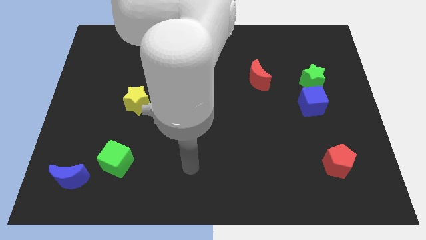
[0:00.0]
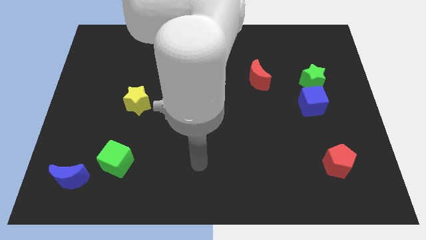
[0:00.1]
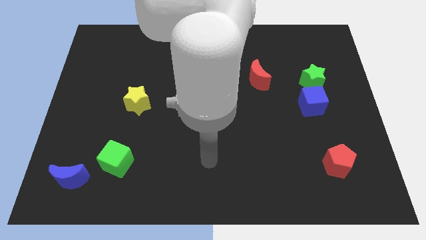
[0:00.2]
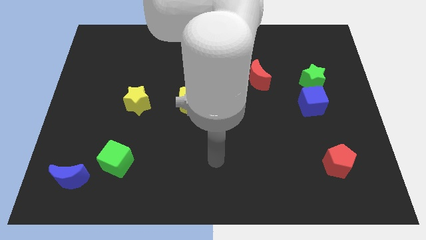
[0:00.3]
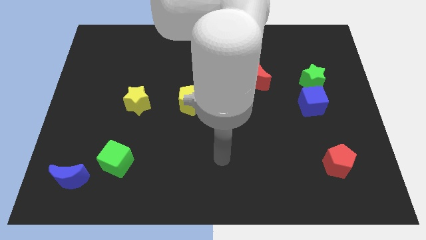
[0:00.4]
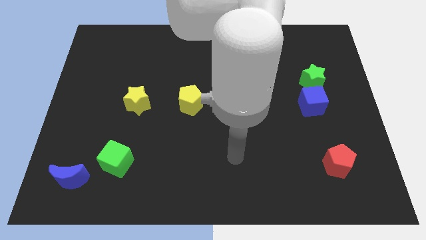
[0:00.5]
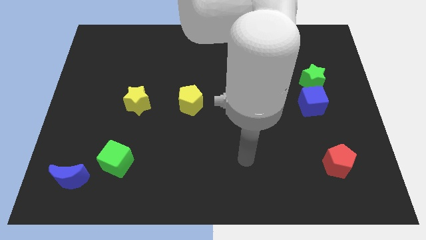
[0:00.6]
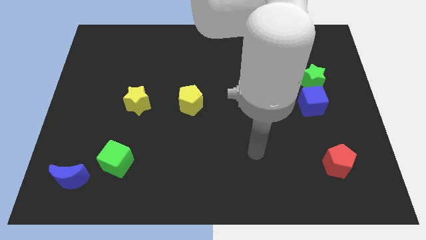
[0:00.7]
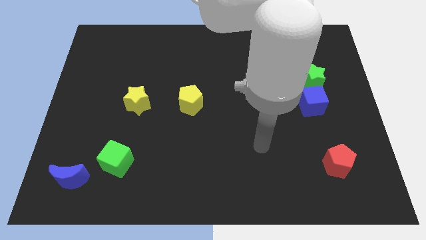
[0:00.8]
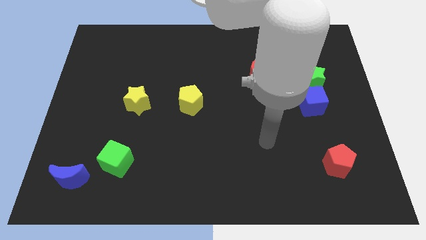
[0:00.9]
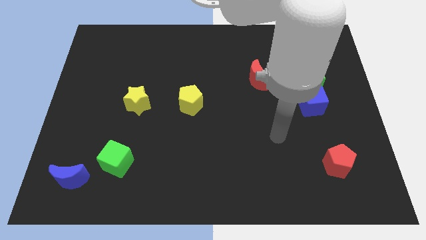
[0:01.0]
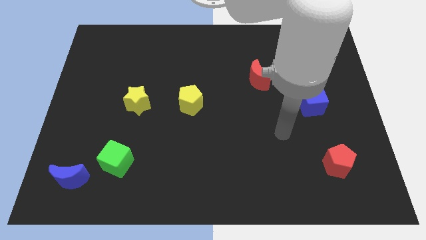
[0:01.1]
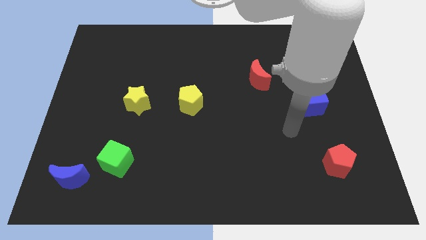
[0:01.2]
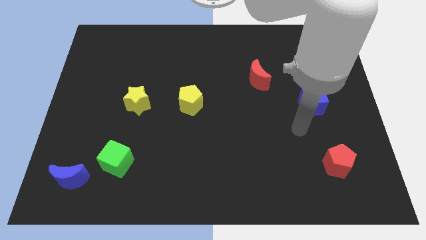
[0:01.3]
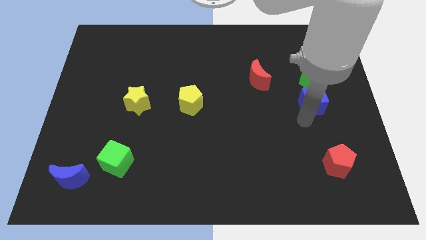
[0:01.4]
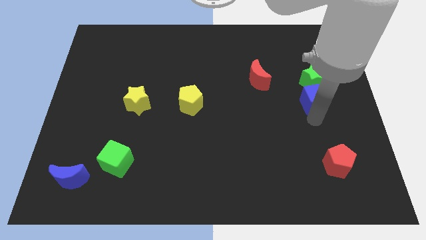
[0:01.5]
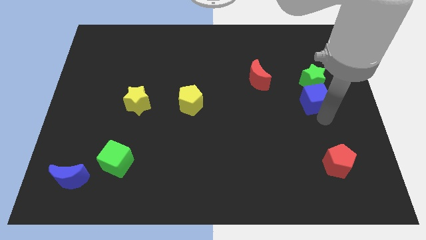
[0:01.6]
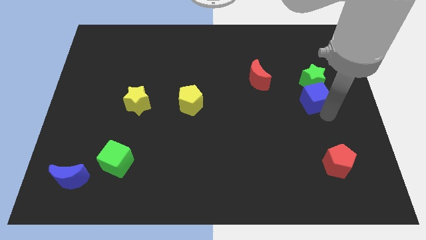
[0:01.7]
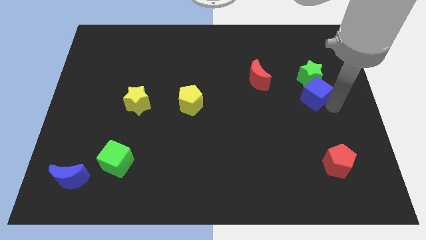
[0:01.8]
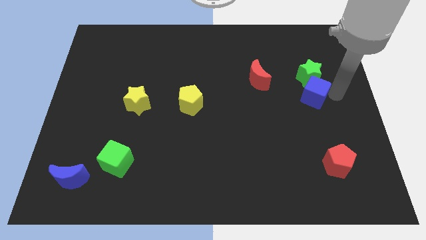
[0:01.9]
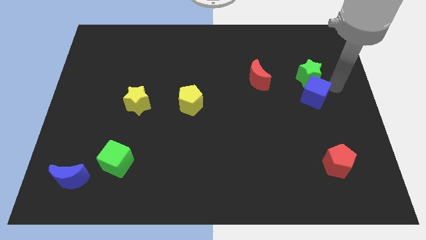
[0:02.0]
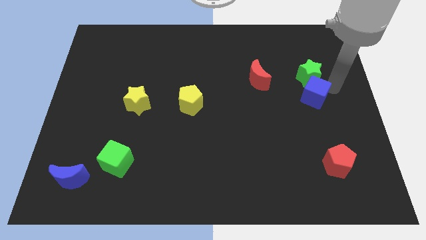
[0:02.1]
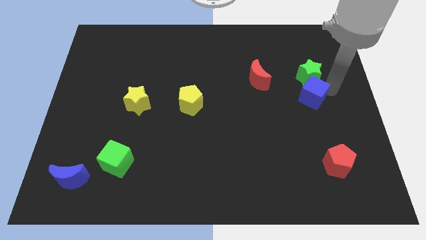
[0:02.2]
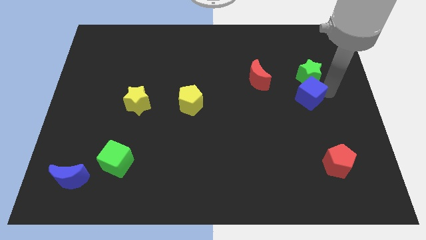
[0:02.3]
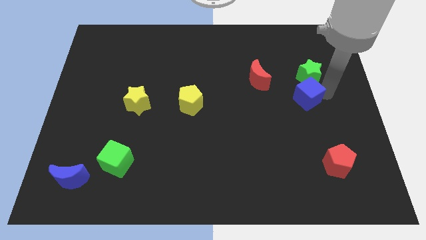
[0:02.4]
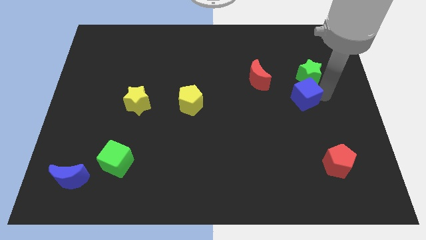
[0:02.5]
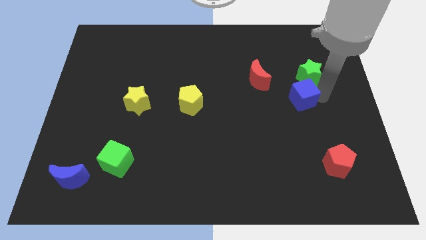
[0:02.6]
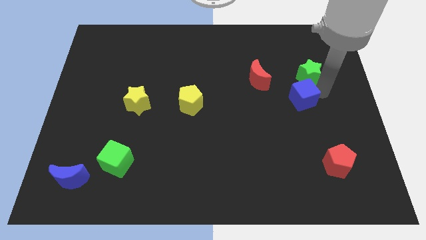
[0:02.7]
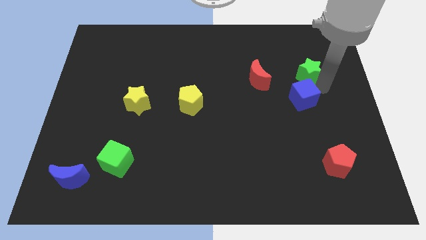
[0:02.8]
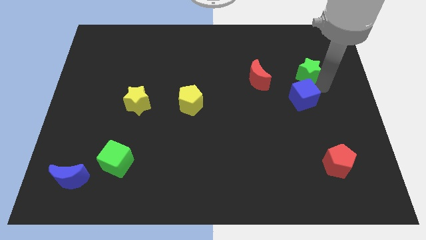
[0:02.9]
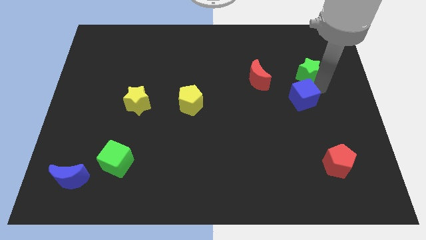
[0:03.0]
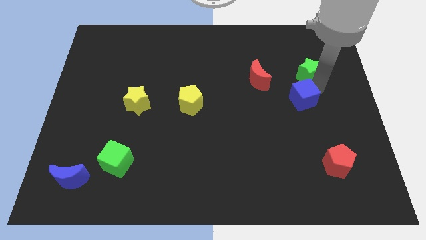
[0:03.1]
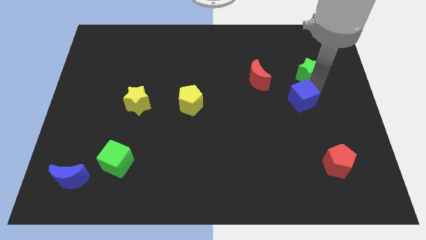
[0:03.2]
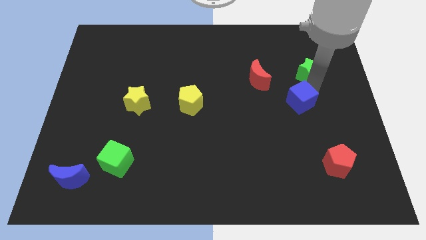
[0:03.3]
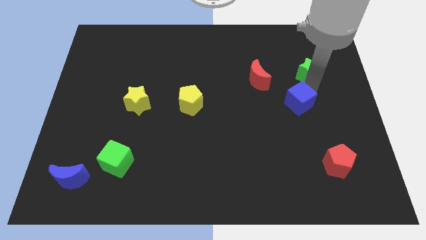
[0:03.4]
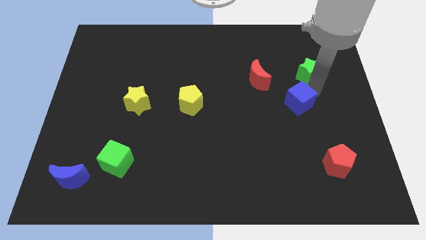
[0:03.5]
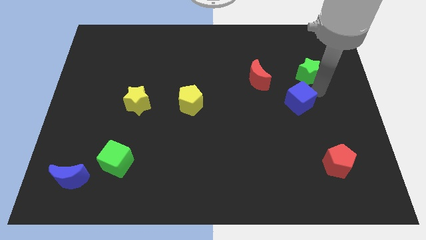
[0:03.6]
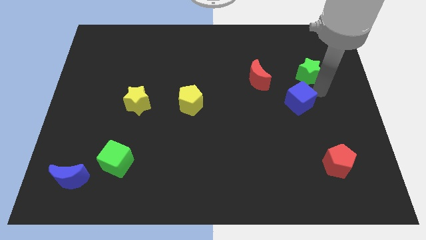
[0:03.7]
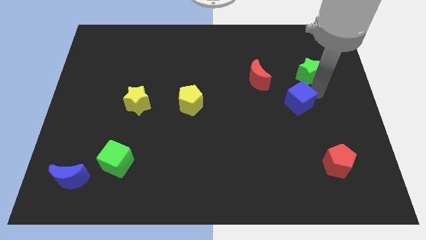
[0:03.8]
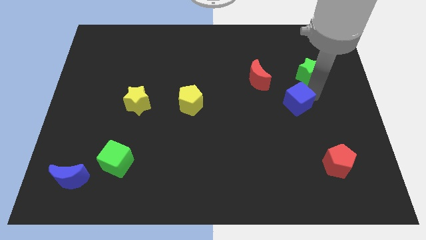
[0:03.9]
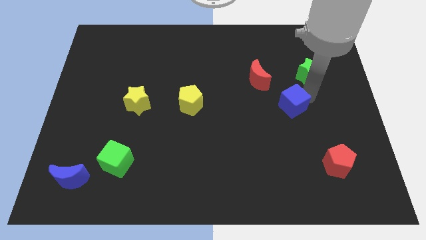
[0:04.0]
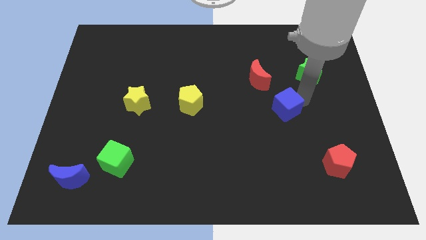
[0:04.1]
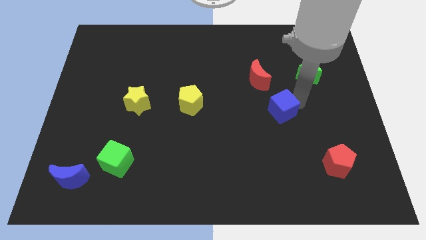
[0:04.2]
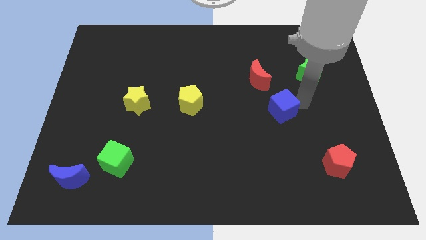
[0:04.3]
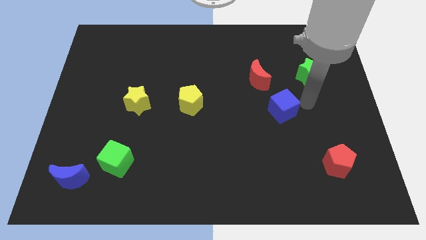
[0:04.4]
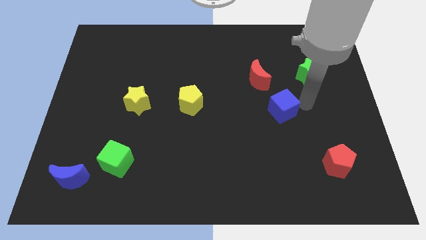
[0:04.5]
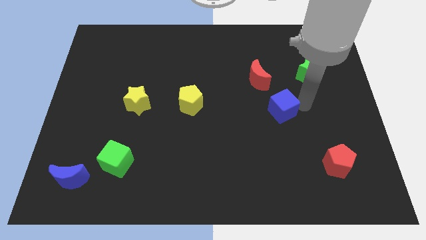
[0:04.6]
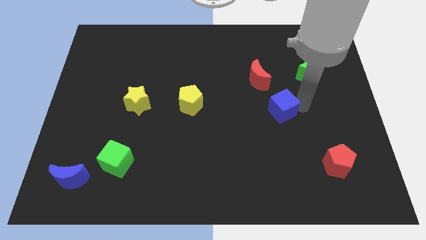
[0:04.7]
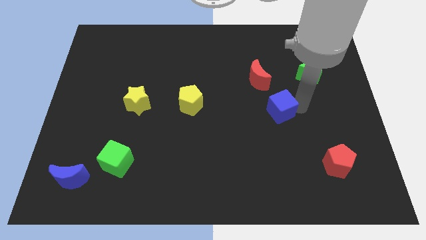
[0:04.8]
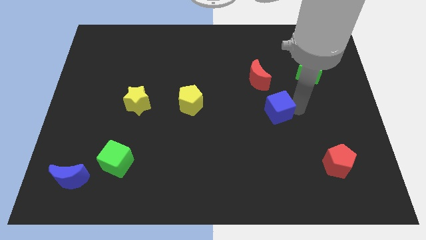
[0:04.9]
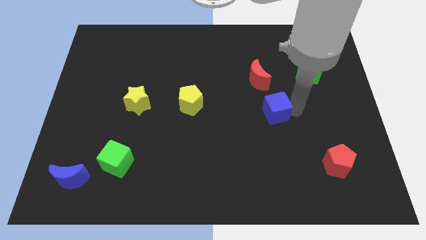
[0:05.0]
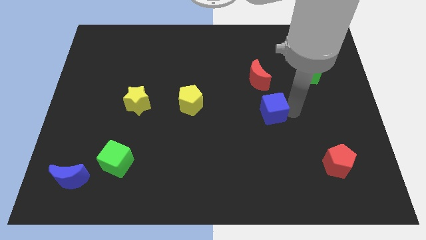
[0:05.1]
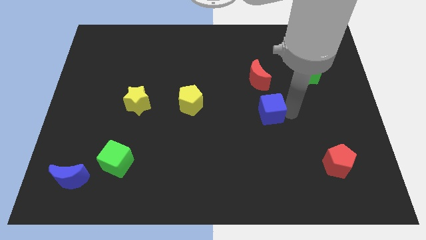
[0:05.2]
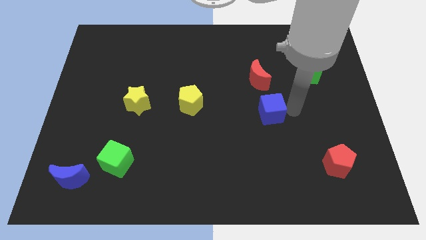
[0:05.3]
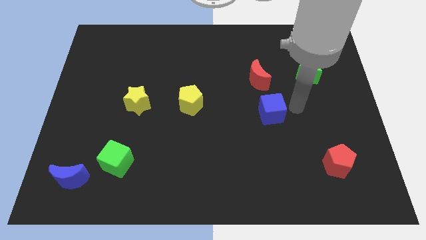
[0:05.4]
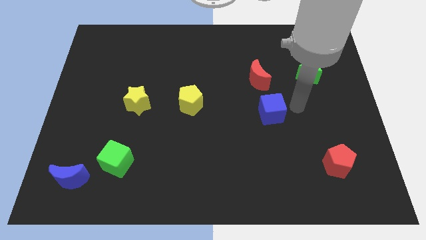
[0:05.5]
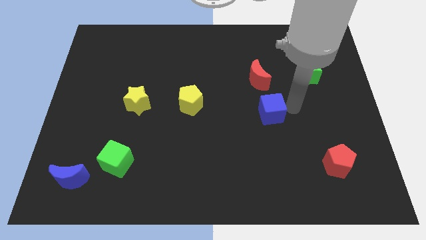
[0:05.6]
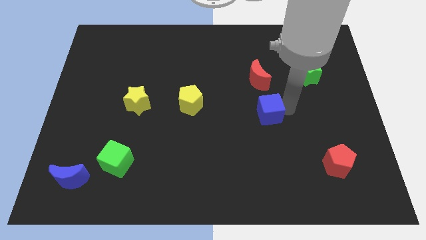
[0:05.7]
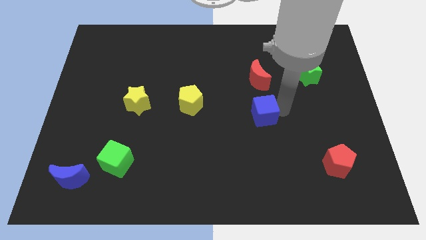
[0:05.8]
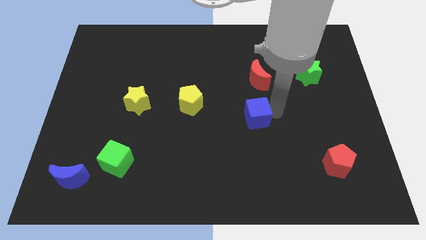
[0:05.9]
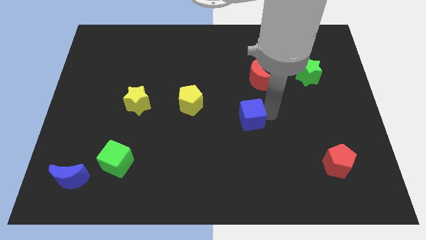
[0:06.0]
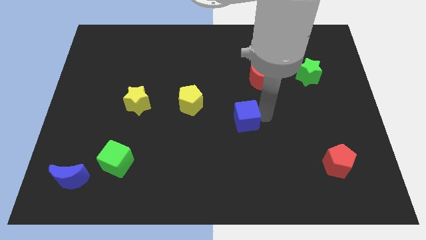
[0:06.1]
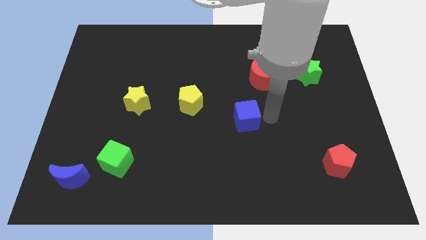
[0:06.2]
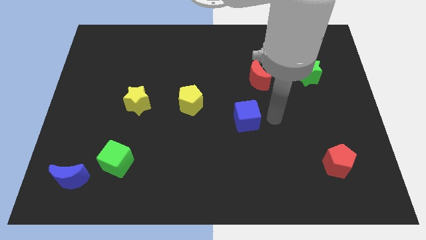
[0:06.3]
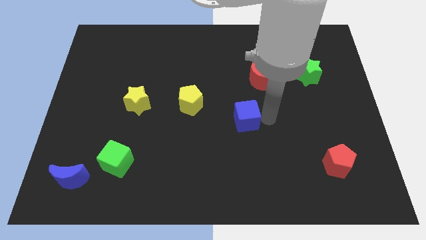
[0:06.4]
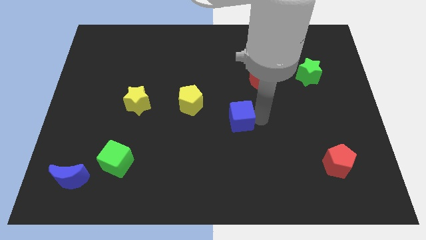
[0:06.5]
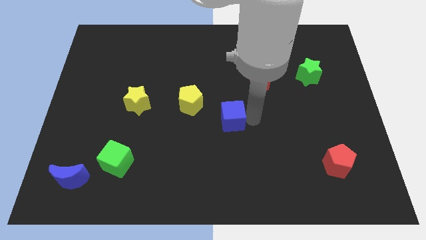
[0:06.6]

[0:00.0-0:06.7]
slide the blue cube to the bottom right side of the yellow pentagon

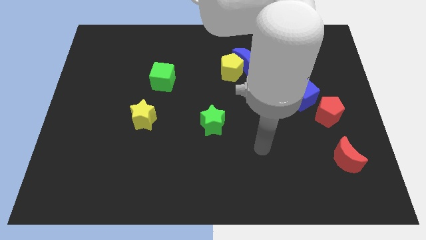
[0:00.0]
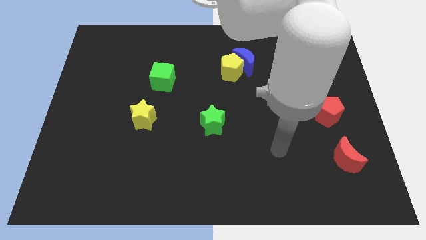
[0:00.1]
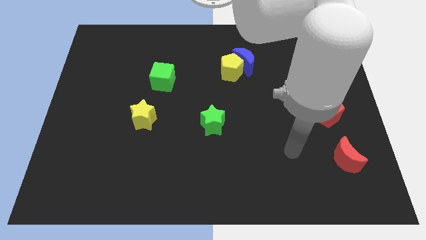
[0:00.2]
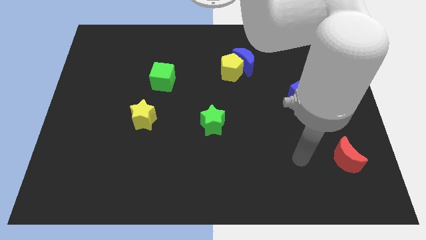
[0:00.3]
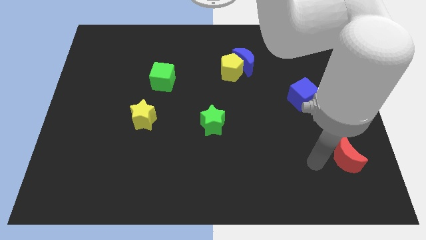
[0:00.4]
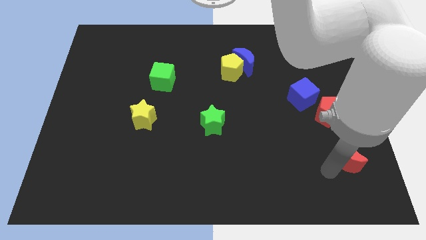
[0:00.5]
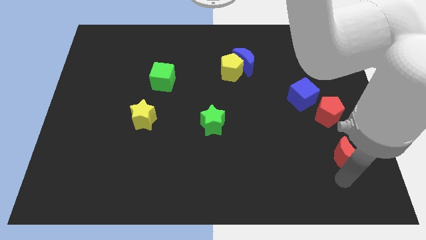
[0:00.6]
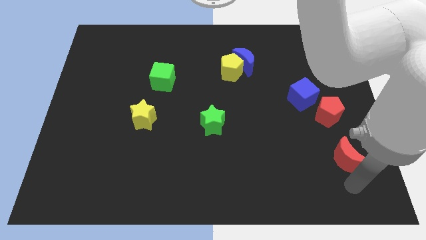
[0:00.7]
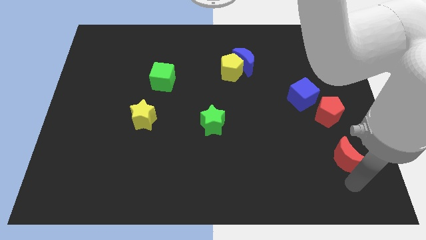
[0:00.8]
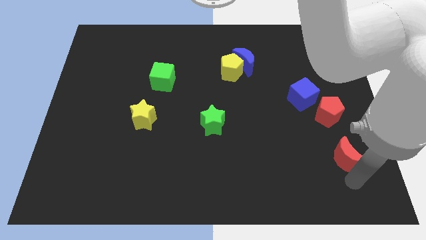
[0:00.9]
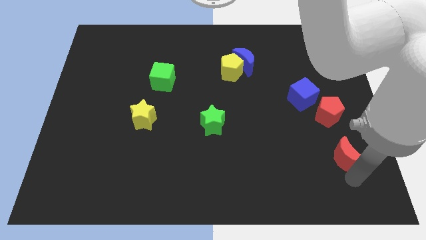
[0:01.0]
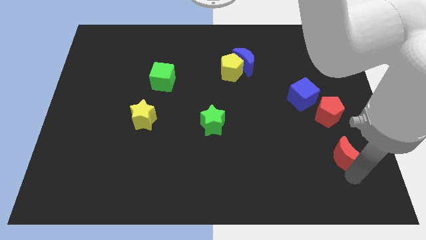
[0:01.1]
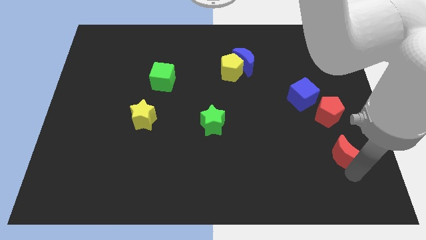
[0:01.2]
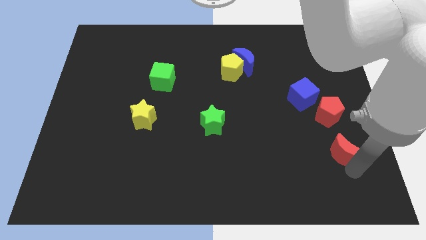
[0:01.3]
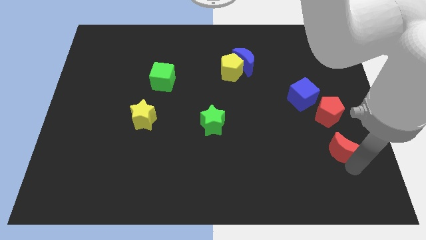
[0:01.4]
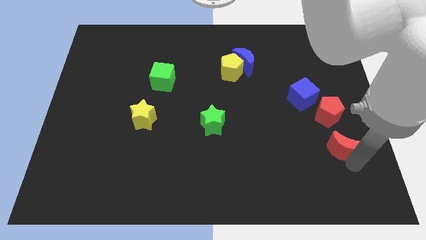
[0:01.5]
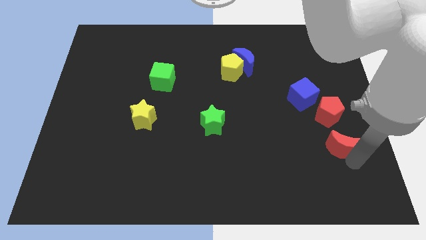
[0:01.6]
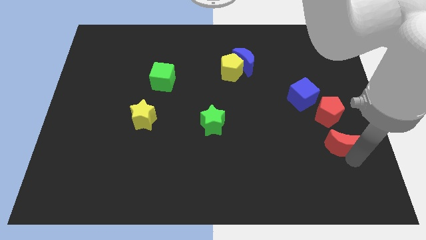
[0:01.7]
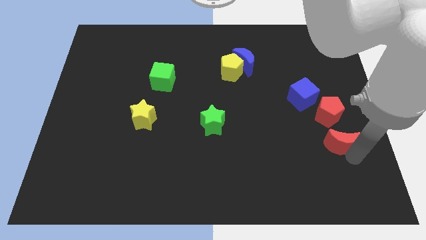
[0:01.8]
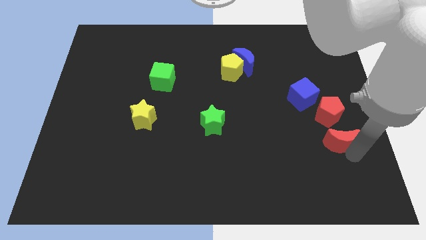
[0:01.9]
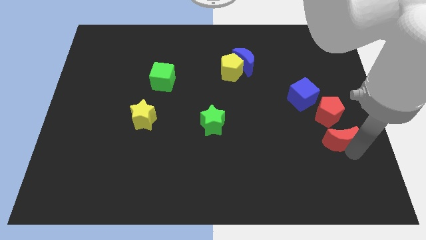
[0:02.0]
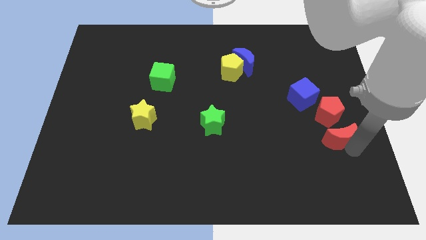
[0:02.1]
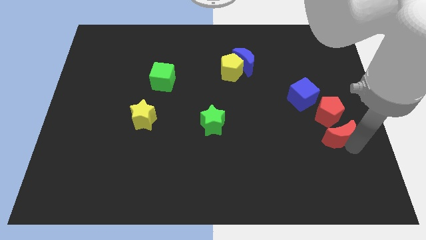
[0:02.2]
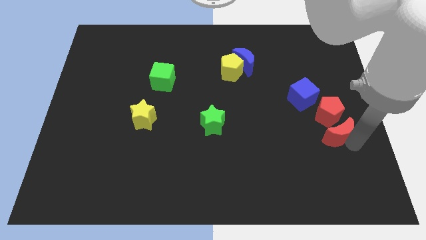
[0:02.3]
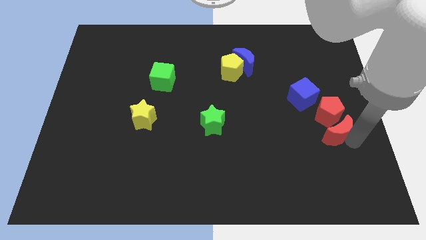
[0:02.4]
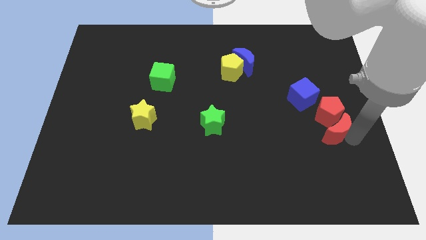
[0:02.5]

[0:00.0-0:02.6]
push the red moon to the bottom right of the blue cube
